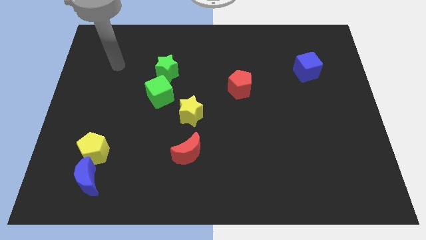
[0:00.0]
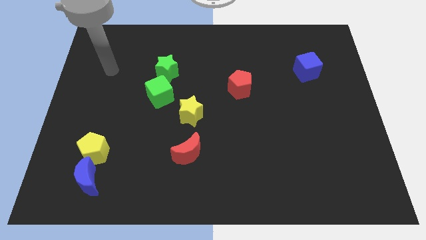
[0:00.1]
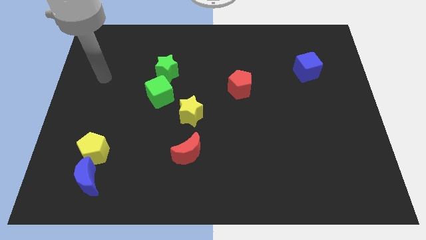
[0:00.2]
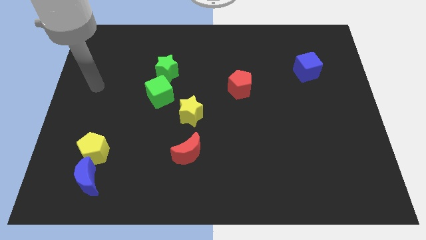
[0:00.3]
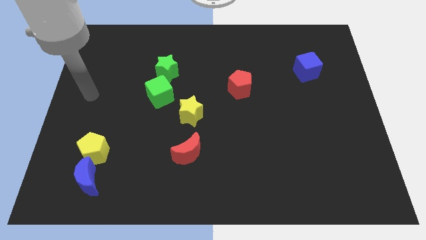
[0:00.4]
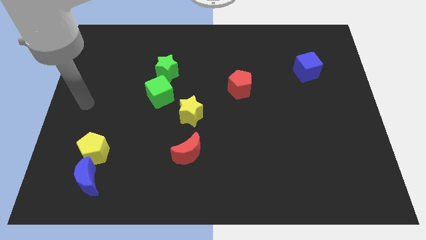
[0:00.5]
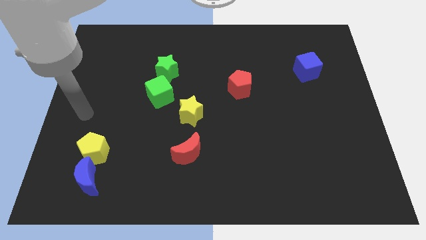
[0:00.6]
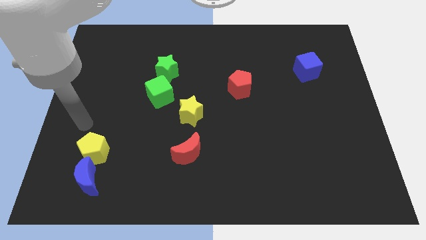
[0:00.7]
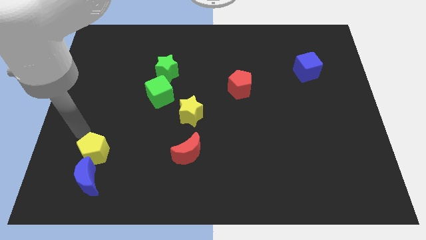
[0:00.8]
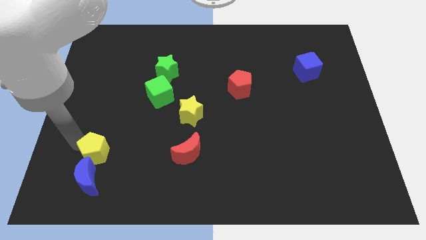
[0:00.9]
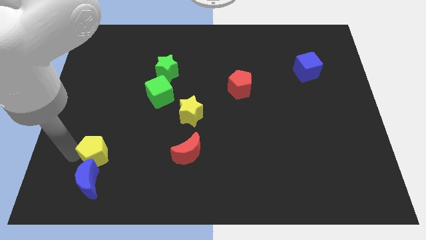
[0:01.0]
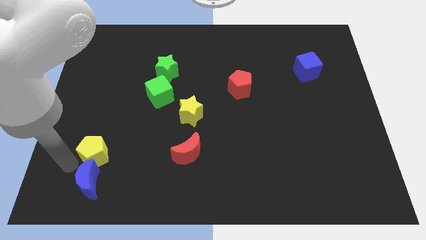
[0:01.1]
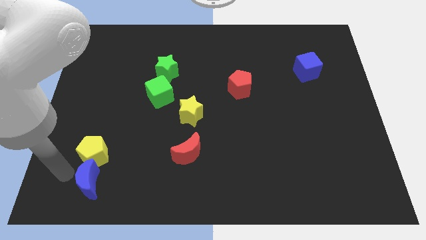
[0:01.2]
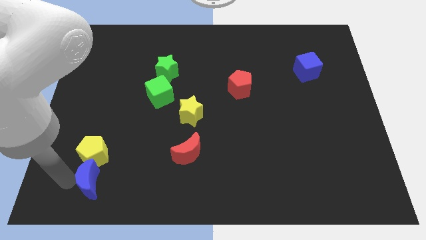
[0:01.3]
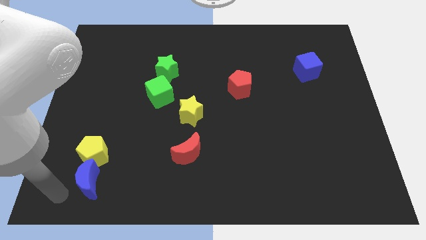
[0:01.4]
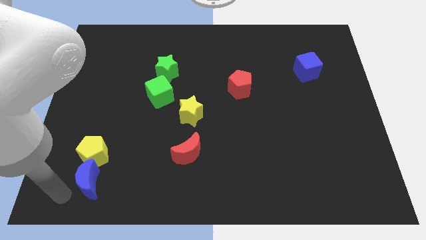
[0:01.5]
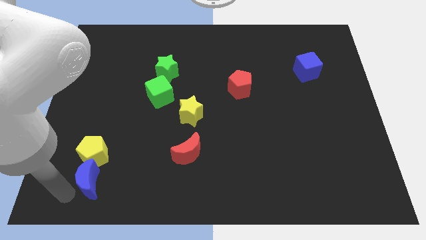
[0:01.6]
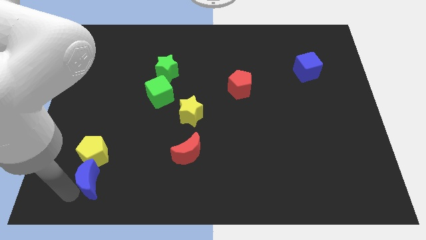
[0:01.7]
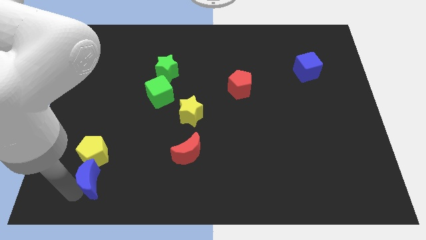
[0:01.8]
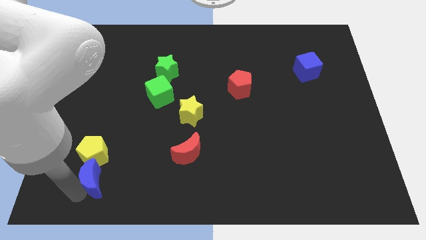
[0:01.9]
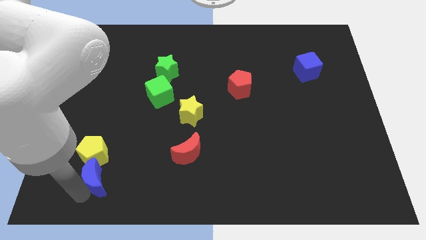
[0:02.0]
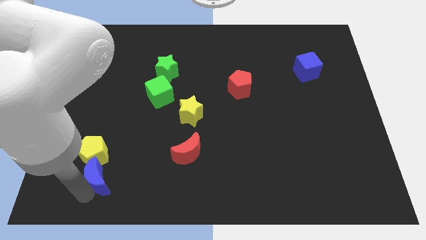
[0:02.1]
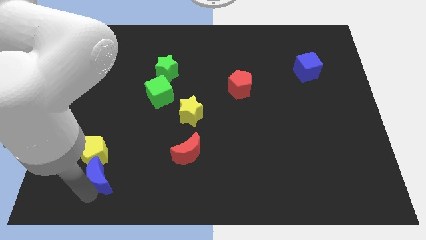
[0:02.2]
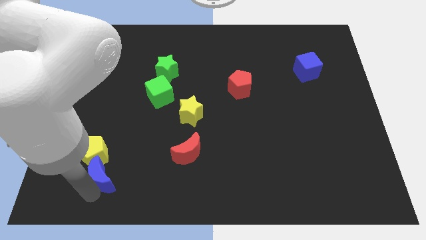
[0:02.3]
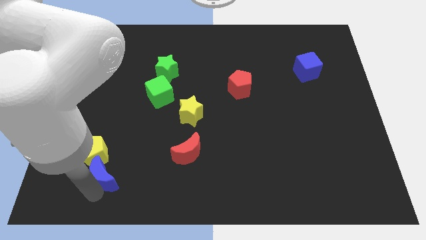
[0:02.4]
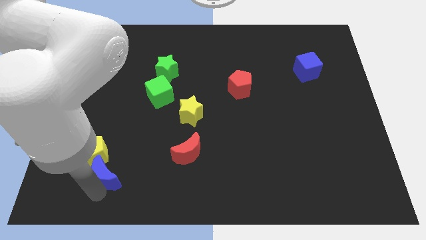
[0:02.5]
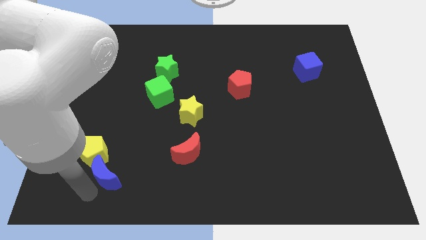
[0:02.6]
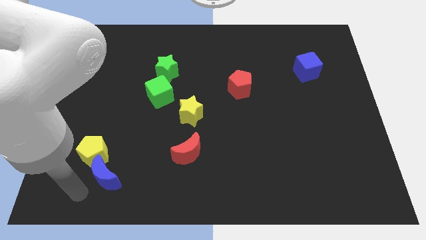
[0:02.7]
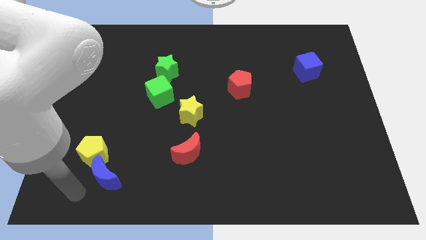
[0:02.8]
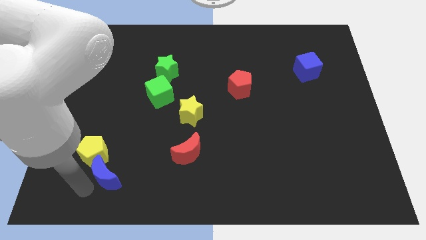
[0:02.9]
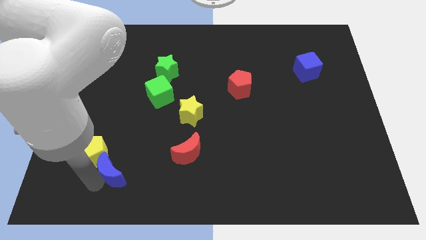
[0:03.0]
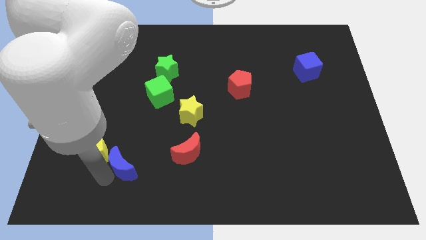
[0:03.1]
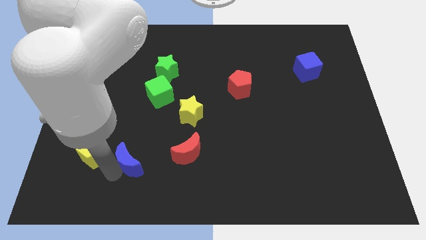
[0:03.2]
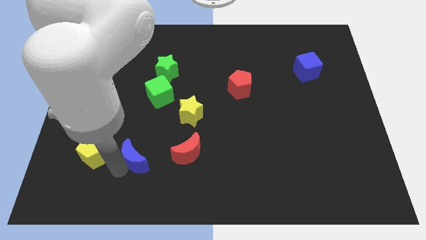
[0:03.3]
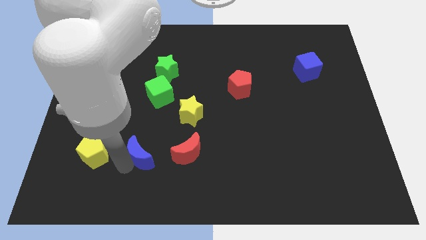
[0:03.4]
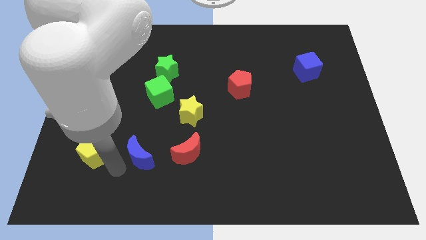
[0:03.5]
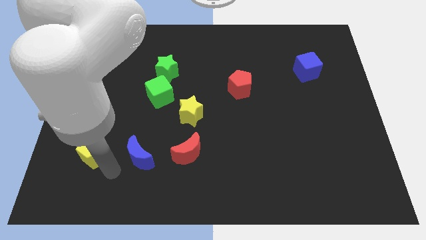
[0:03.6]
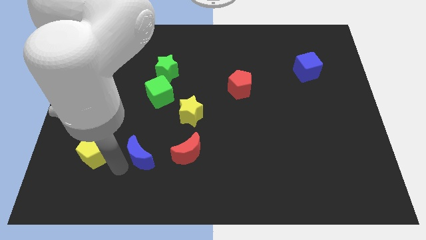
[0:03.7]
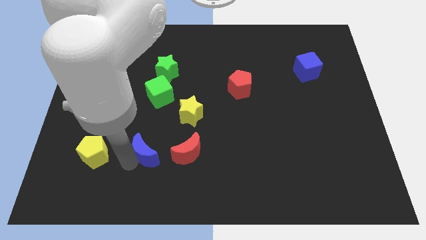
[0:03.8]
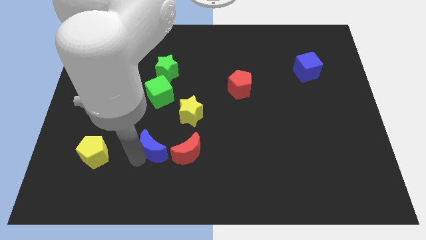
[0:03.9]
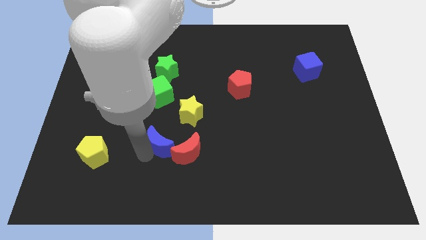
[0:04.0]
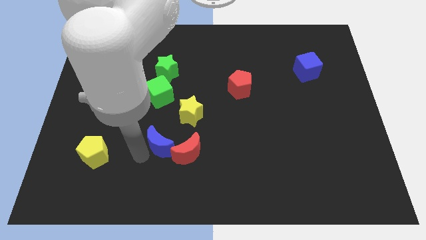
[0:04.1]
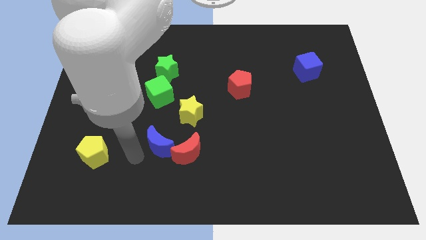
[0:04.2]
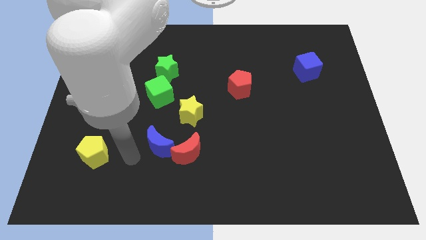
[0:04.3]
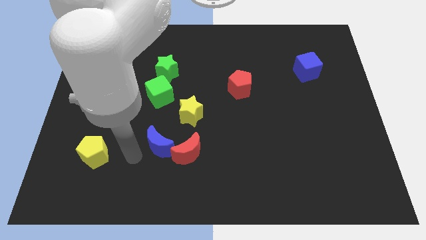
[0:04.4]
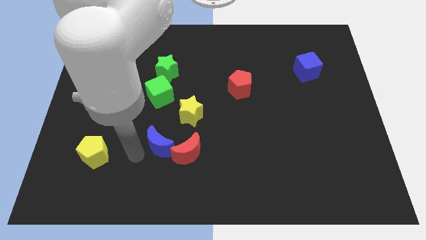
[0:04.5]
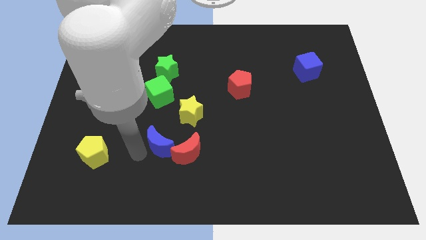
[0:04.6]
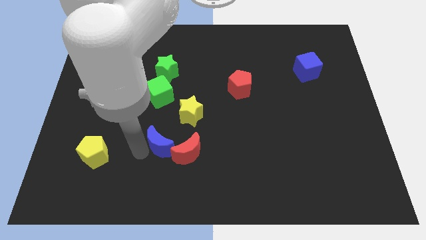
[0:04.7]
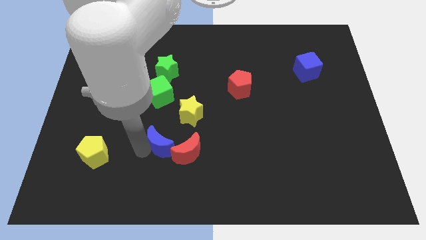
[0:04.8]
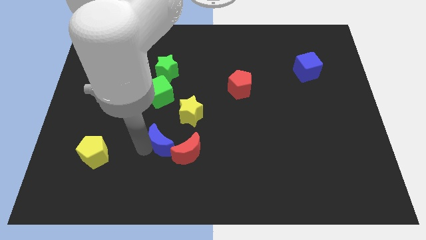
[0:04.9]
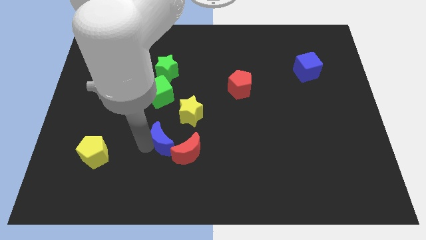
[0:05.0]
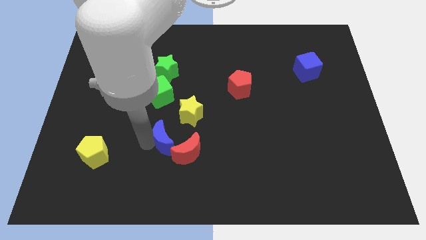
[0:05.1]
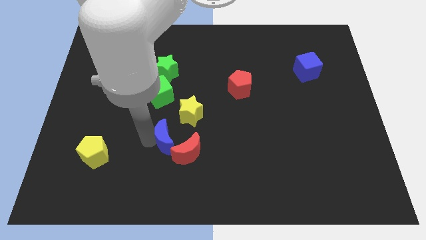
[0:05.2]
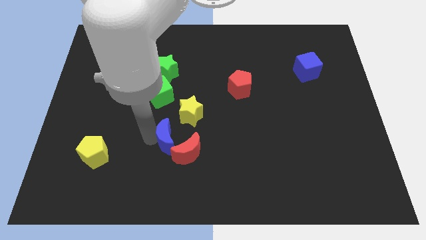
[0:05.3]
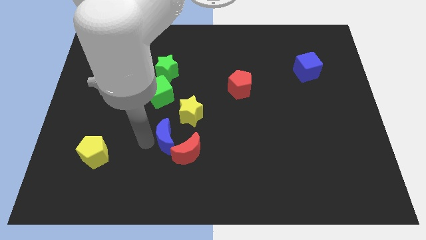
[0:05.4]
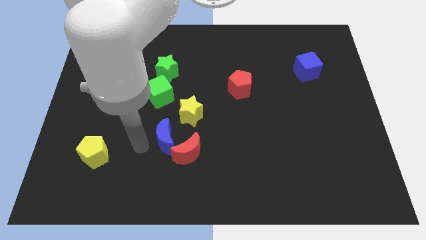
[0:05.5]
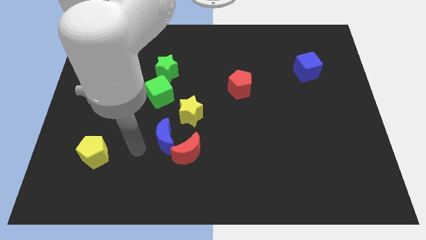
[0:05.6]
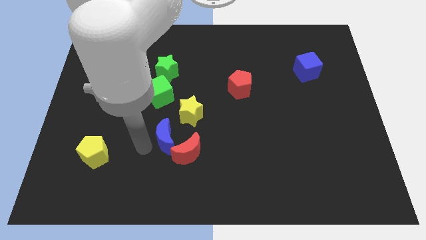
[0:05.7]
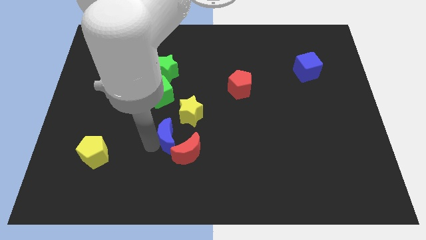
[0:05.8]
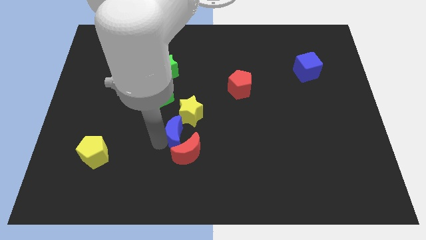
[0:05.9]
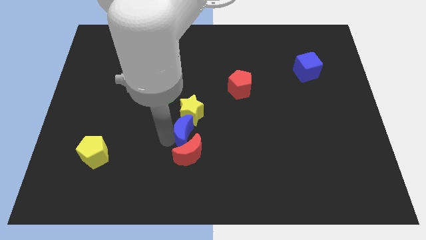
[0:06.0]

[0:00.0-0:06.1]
put the blue moon to the top right of the red moon

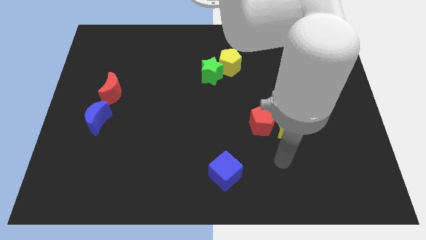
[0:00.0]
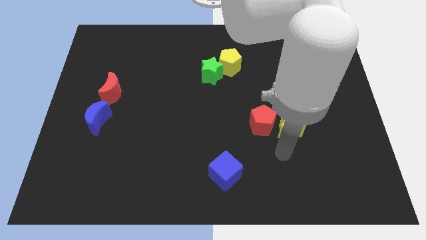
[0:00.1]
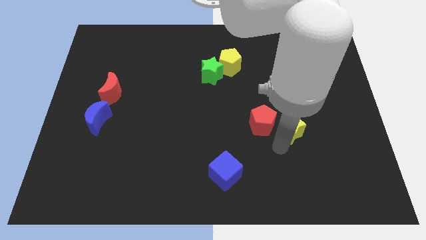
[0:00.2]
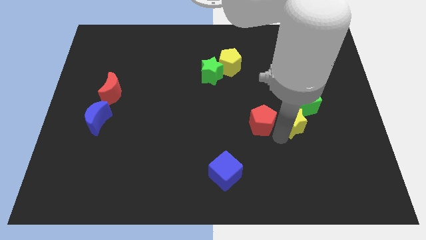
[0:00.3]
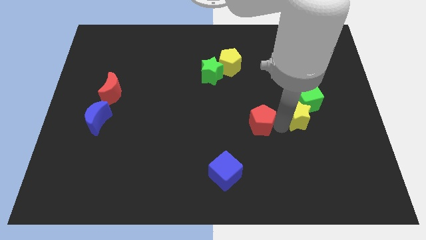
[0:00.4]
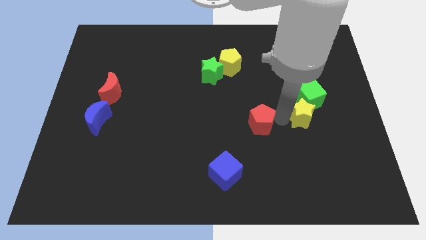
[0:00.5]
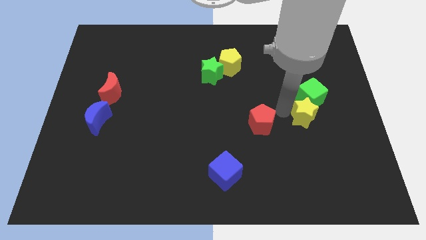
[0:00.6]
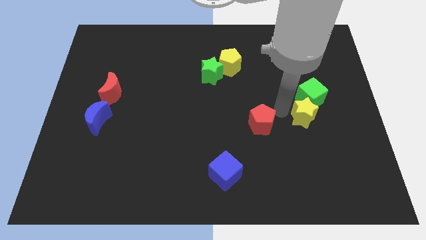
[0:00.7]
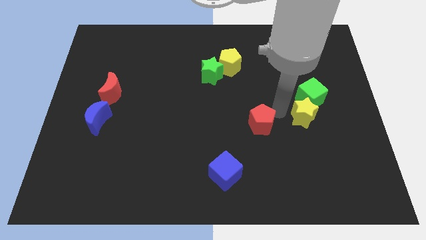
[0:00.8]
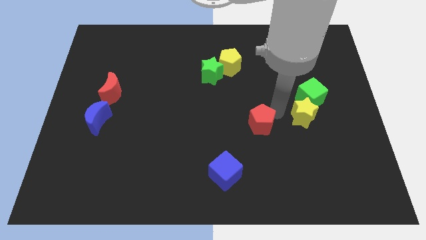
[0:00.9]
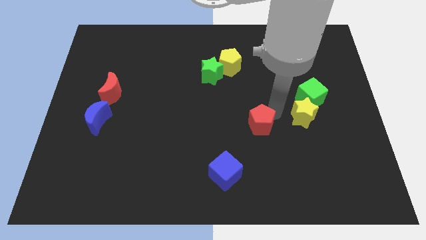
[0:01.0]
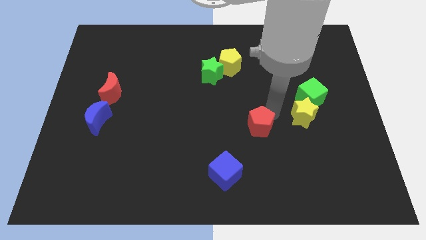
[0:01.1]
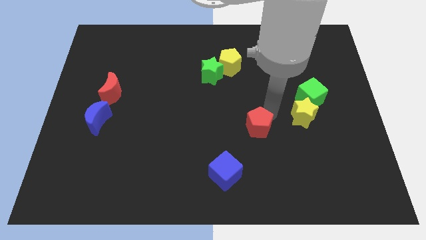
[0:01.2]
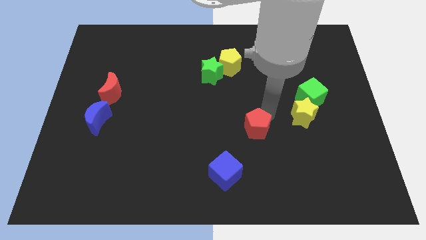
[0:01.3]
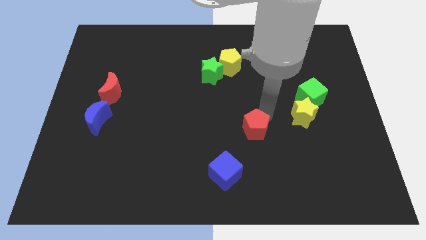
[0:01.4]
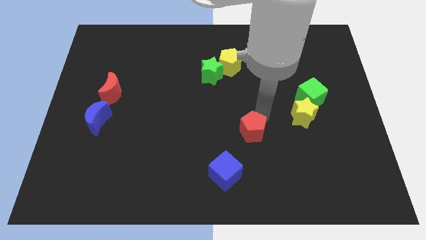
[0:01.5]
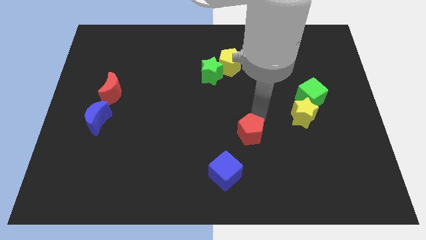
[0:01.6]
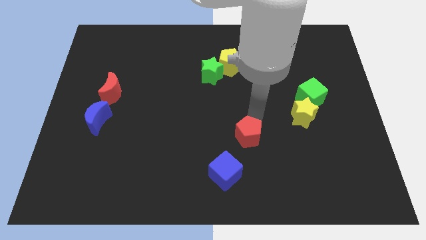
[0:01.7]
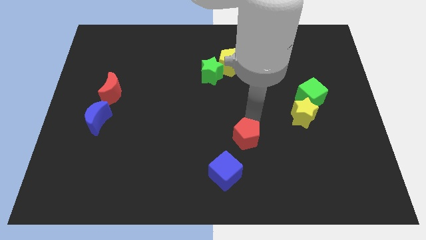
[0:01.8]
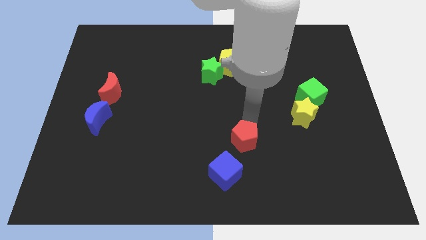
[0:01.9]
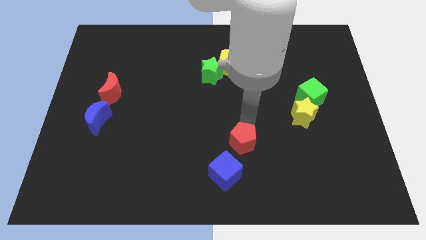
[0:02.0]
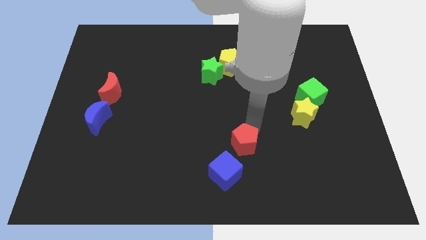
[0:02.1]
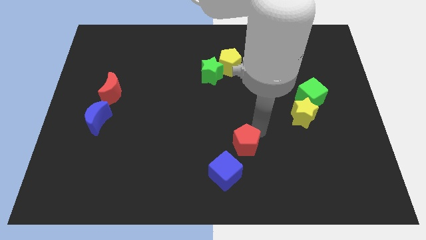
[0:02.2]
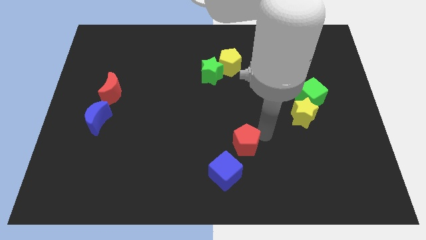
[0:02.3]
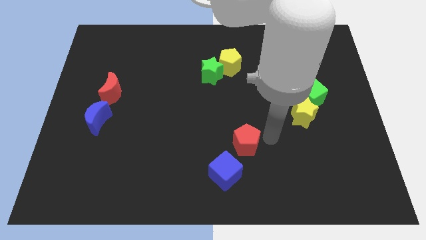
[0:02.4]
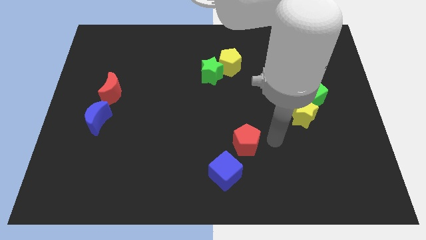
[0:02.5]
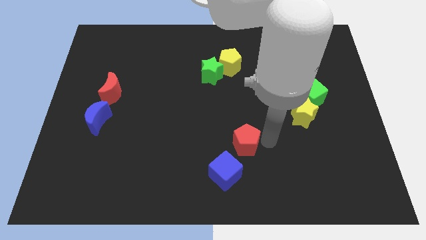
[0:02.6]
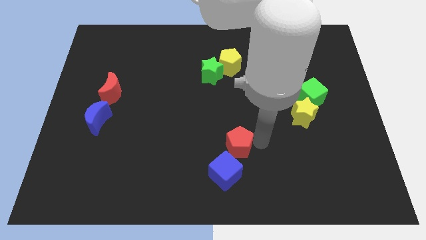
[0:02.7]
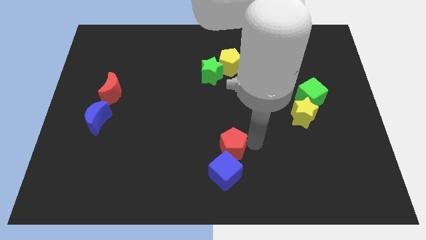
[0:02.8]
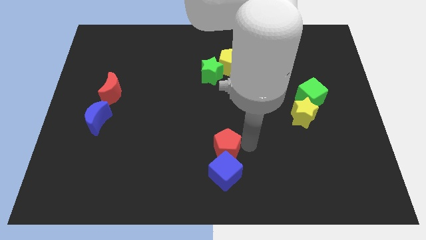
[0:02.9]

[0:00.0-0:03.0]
move the red pentagon to the top left side of the blue cube
